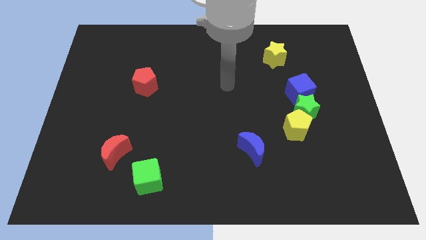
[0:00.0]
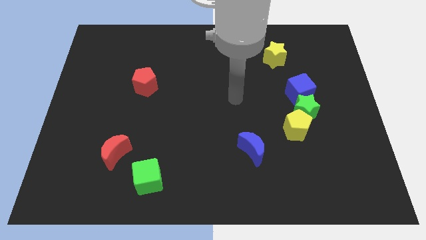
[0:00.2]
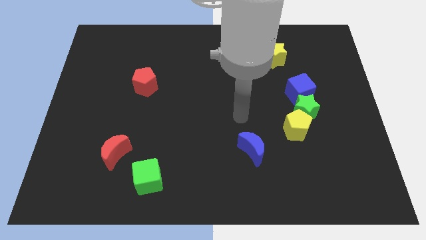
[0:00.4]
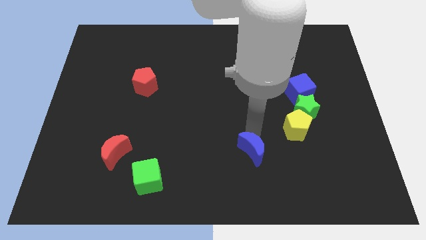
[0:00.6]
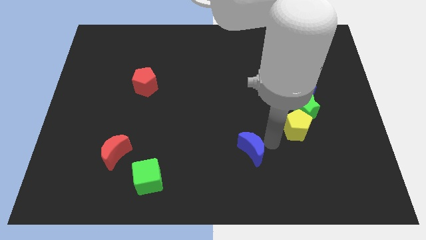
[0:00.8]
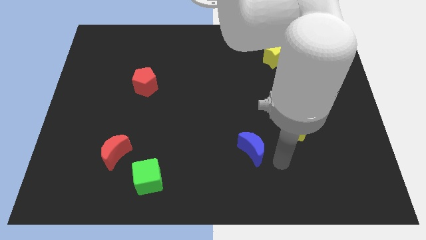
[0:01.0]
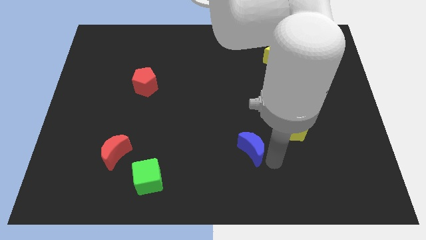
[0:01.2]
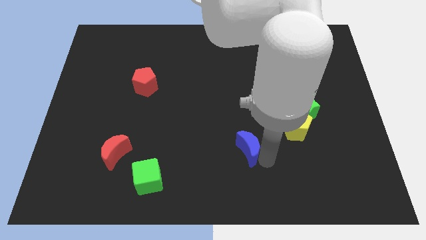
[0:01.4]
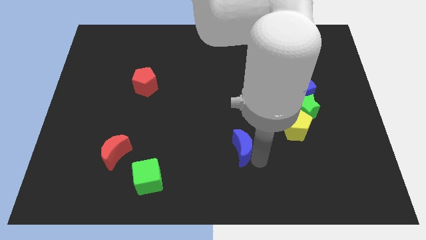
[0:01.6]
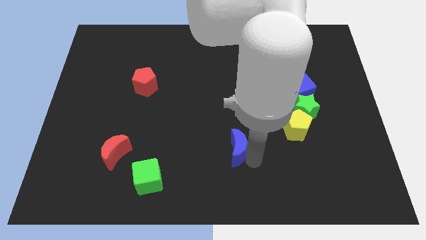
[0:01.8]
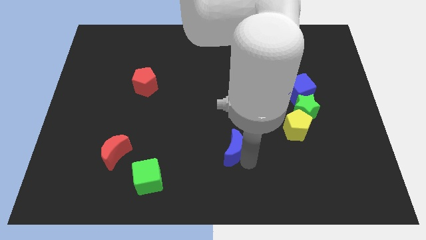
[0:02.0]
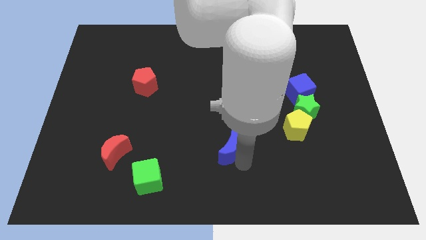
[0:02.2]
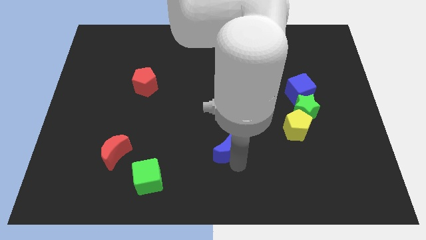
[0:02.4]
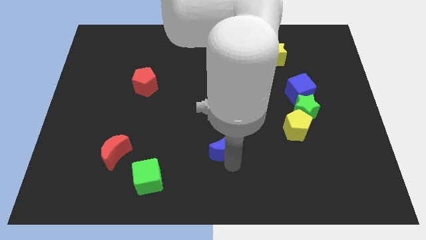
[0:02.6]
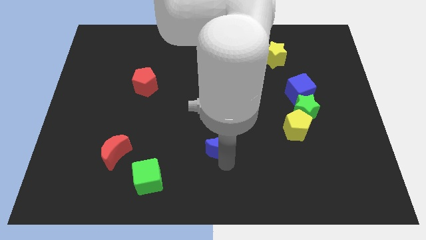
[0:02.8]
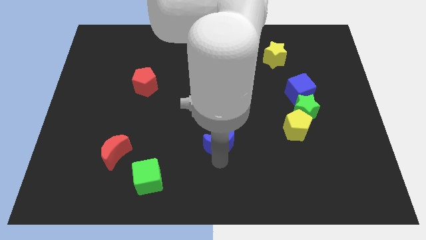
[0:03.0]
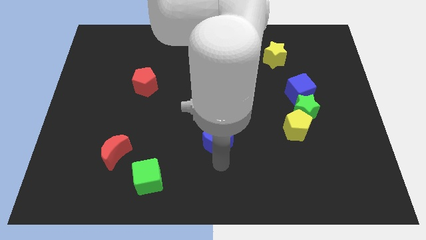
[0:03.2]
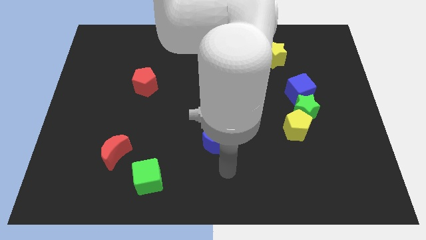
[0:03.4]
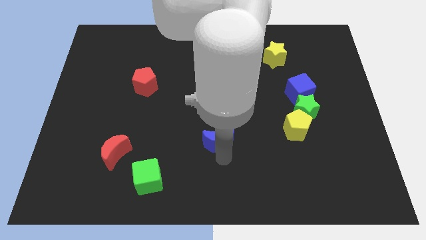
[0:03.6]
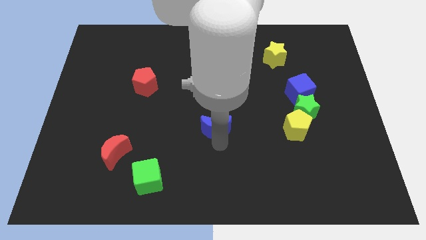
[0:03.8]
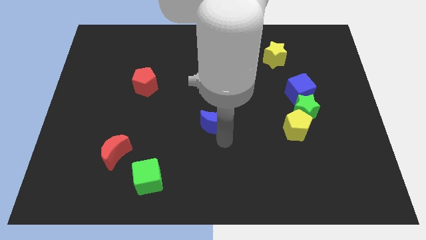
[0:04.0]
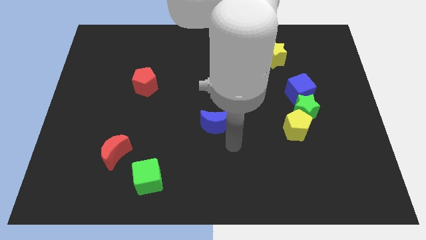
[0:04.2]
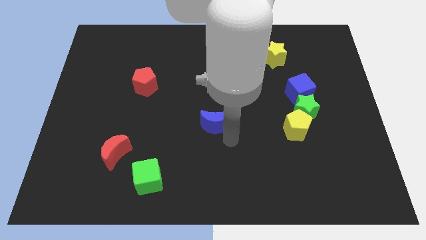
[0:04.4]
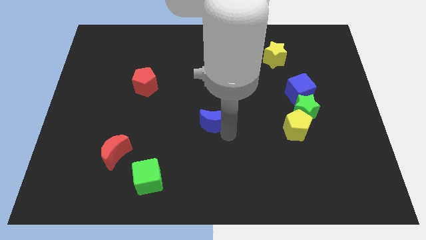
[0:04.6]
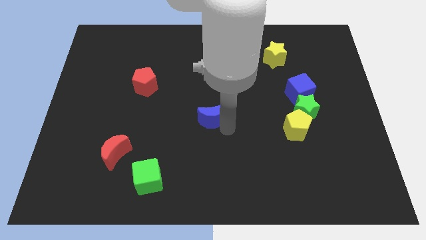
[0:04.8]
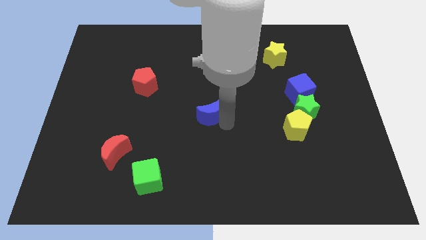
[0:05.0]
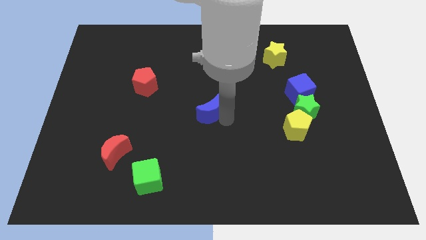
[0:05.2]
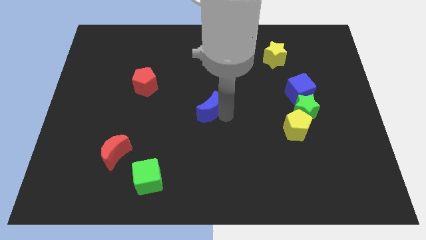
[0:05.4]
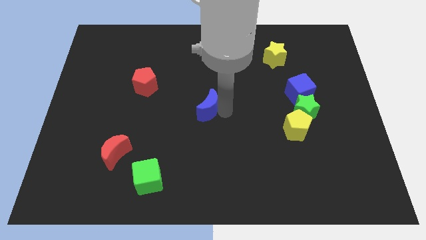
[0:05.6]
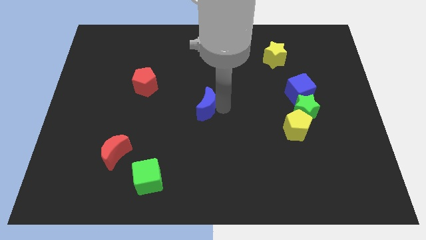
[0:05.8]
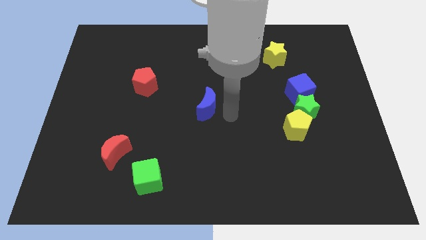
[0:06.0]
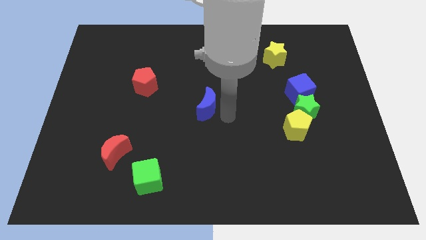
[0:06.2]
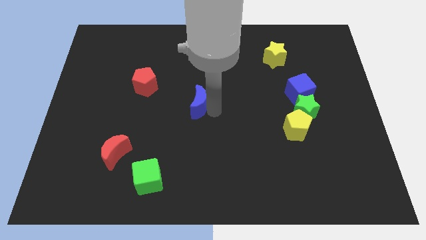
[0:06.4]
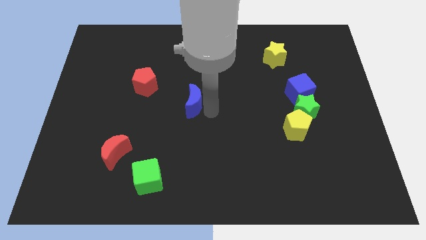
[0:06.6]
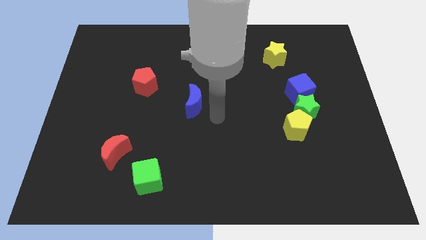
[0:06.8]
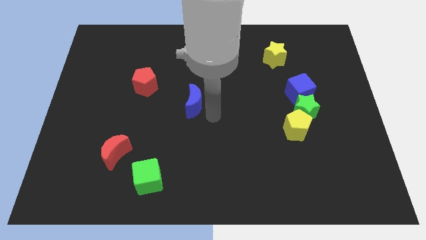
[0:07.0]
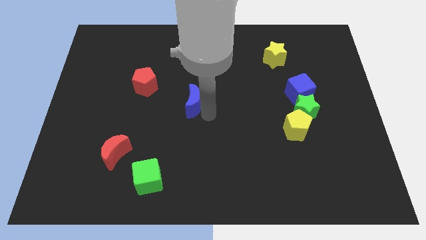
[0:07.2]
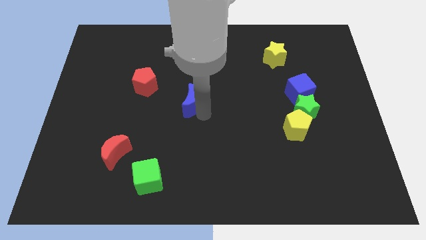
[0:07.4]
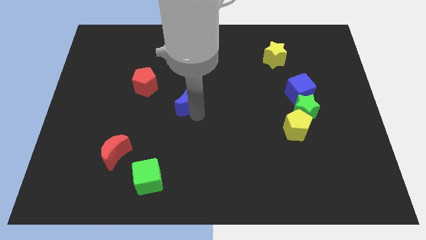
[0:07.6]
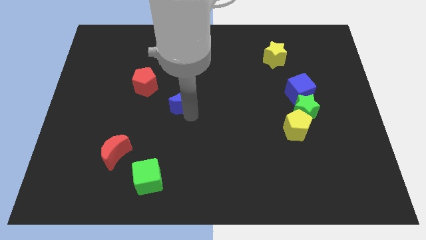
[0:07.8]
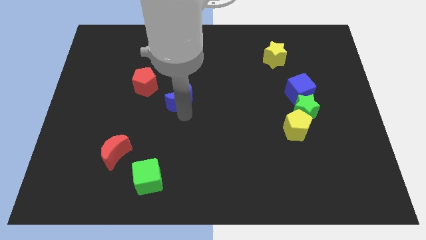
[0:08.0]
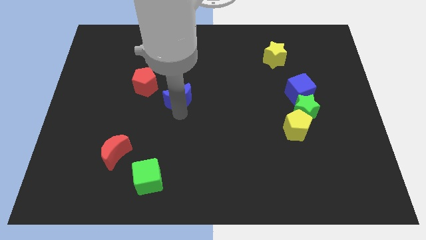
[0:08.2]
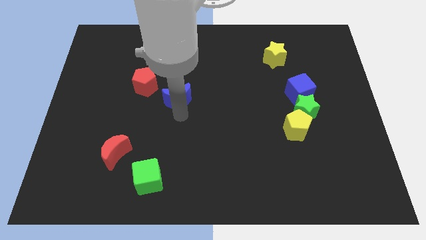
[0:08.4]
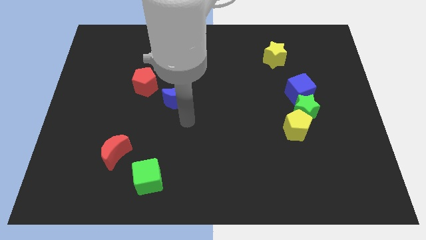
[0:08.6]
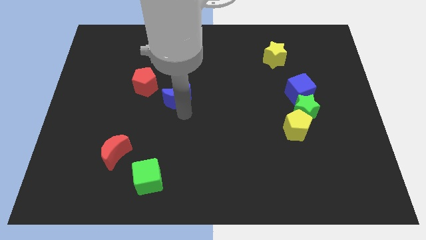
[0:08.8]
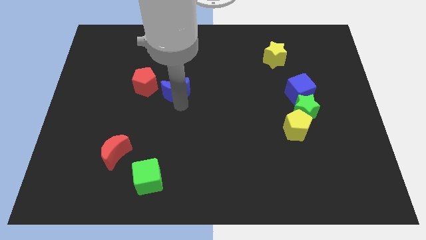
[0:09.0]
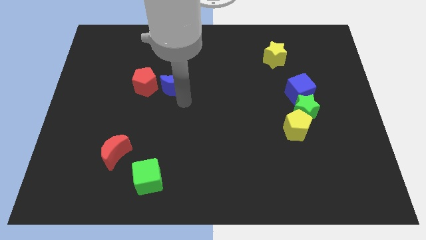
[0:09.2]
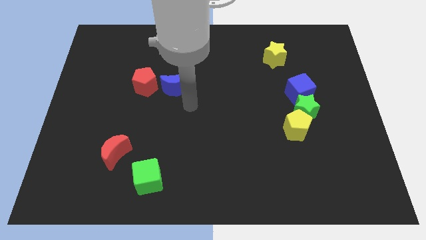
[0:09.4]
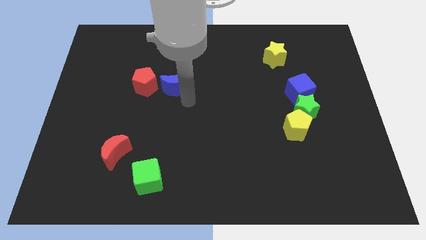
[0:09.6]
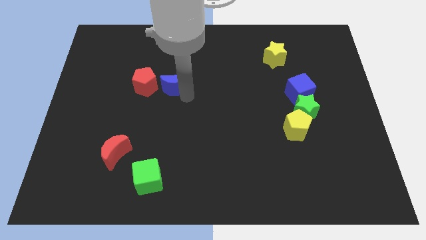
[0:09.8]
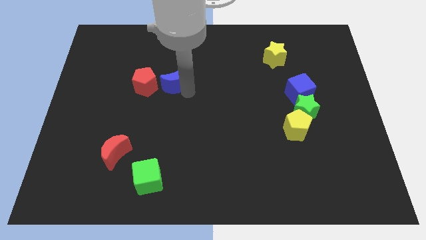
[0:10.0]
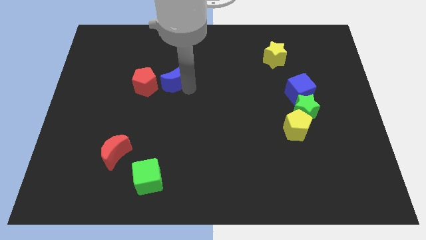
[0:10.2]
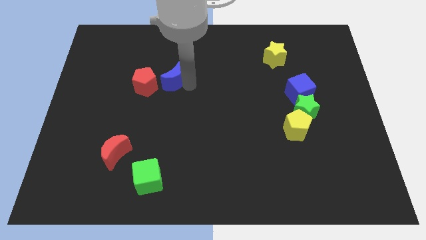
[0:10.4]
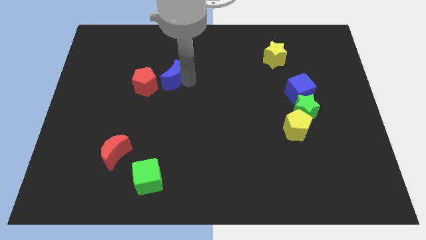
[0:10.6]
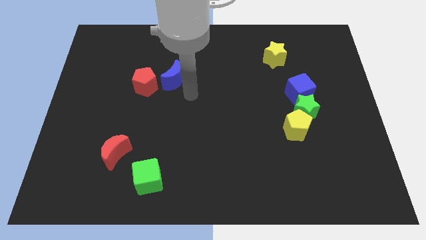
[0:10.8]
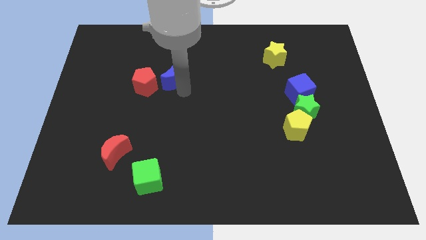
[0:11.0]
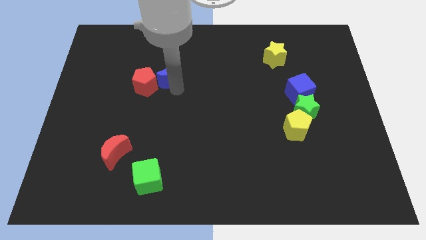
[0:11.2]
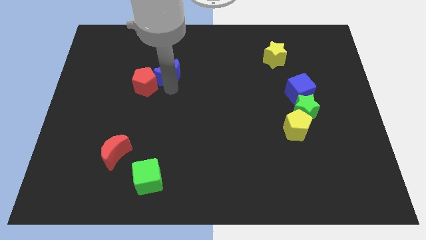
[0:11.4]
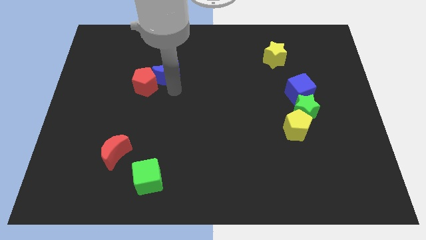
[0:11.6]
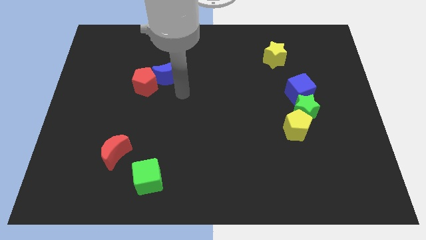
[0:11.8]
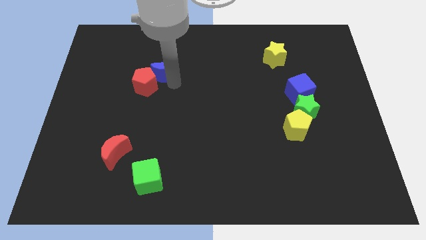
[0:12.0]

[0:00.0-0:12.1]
slide the blue moon to the top side of the red pentagon

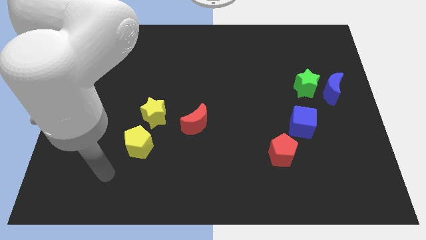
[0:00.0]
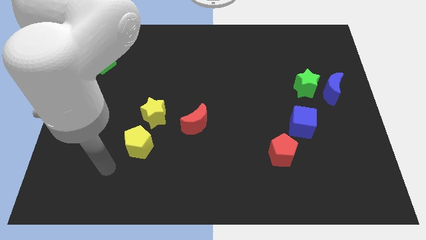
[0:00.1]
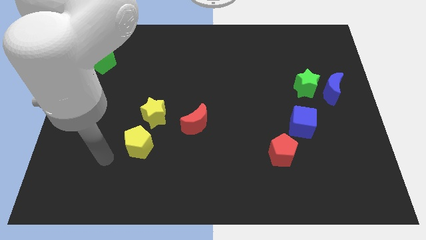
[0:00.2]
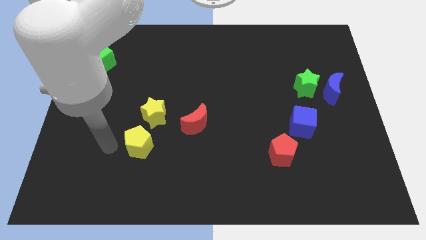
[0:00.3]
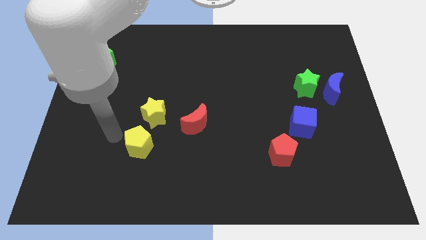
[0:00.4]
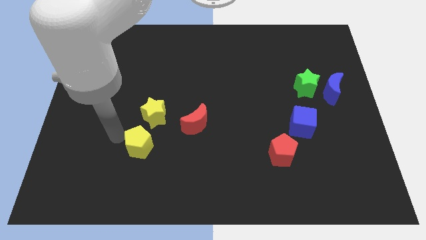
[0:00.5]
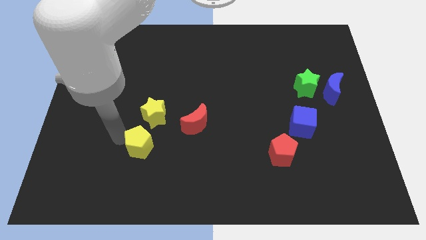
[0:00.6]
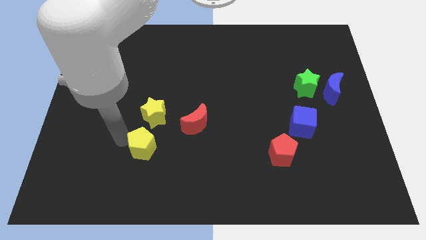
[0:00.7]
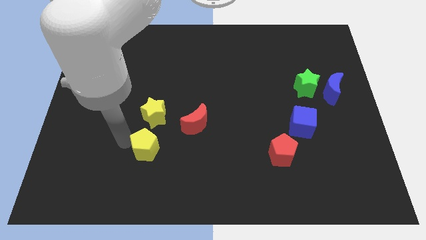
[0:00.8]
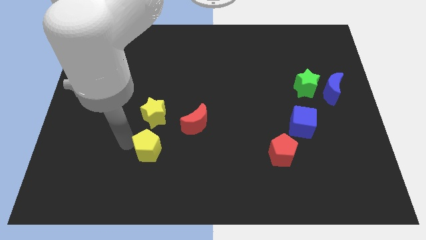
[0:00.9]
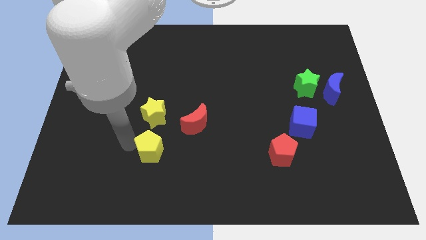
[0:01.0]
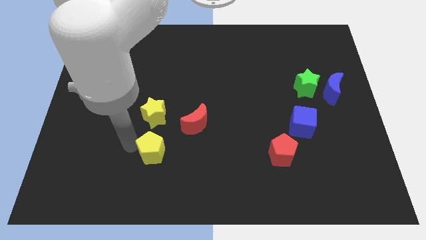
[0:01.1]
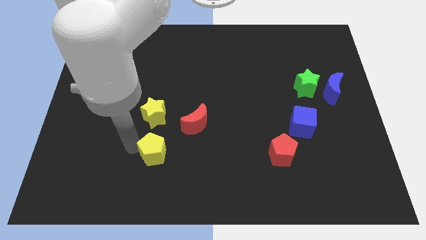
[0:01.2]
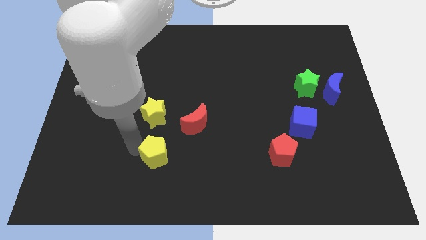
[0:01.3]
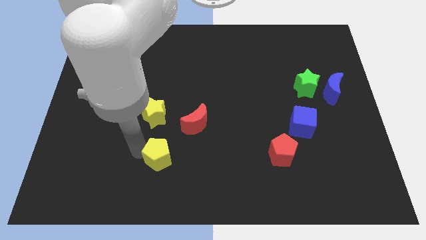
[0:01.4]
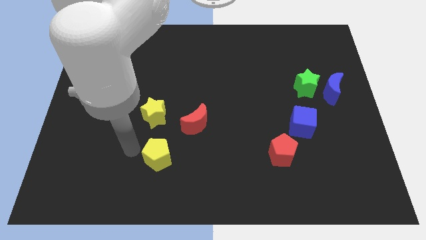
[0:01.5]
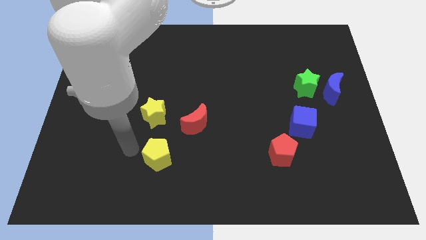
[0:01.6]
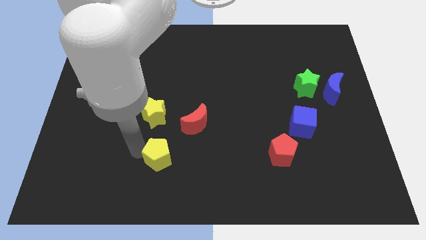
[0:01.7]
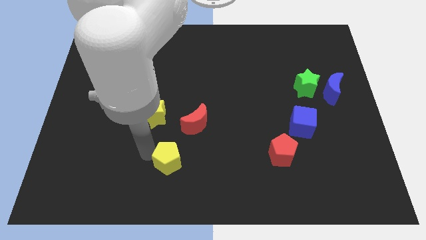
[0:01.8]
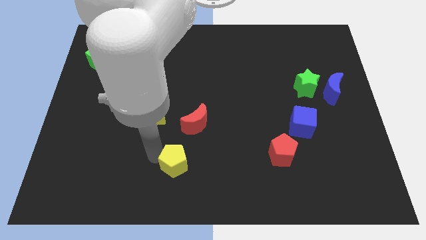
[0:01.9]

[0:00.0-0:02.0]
move the yellow pentagon to the bottom side of the red moon
